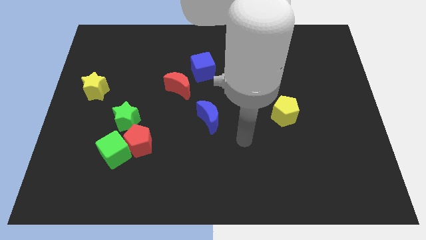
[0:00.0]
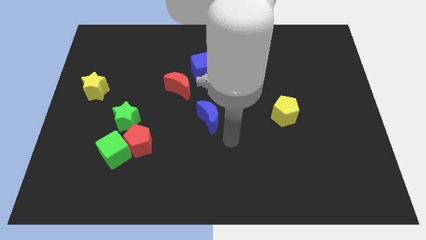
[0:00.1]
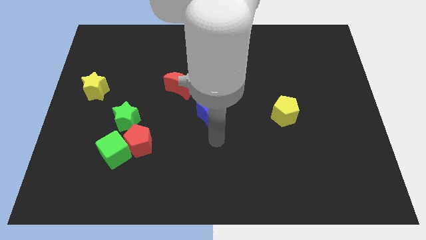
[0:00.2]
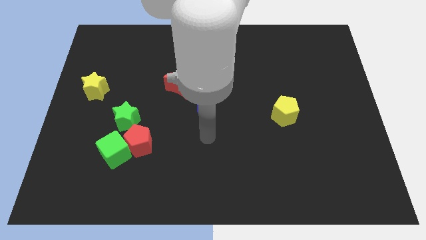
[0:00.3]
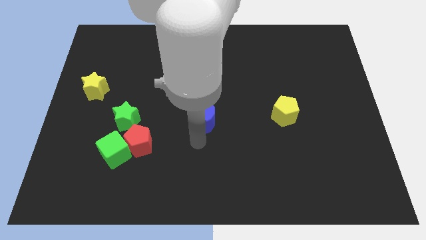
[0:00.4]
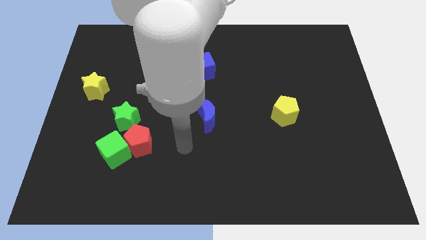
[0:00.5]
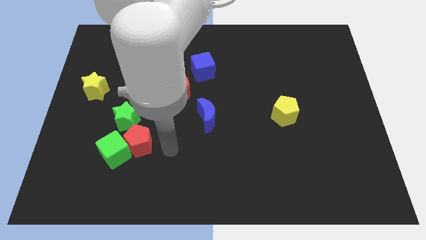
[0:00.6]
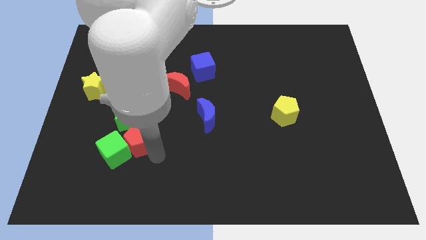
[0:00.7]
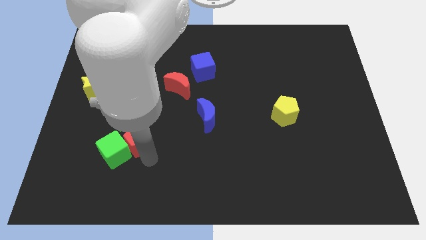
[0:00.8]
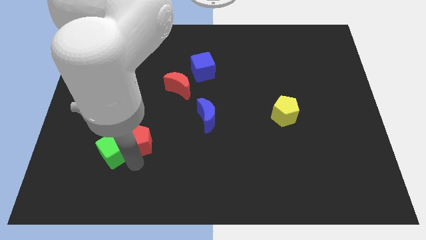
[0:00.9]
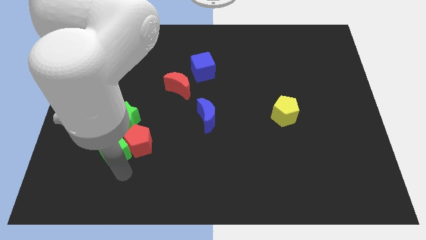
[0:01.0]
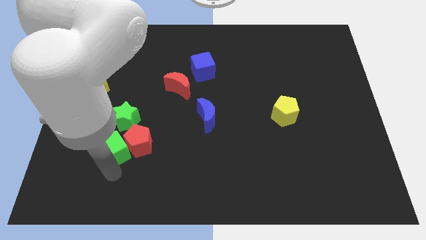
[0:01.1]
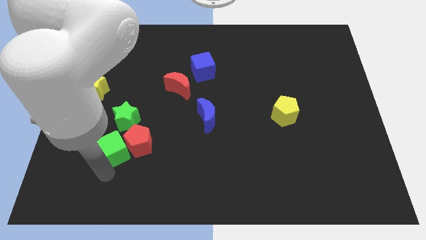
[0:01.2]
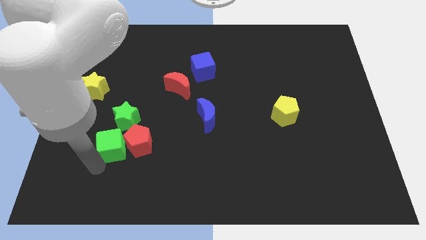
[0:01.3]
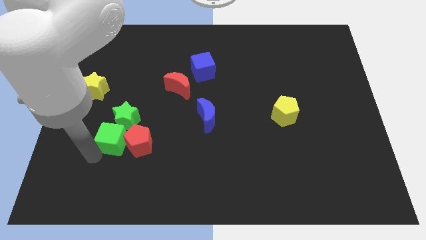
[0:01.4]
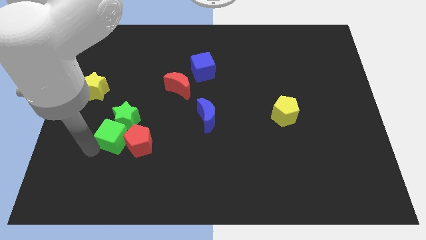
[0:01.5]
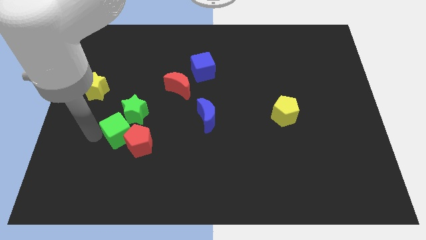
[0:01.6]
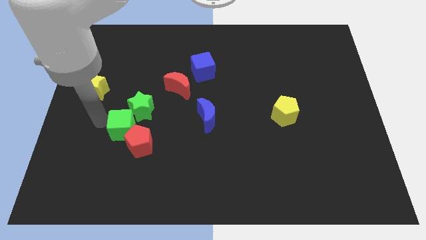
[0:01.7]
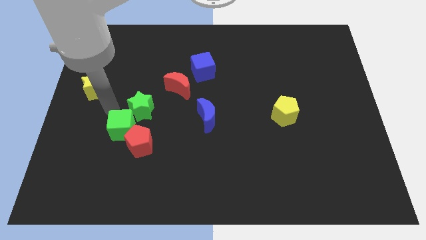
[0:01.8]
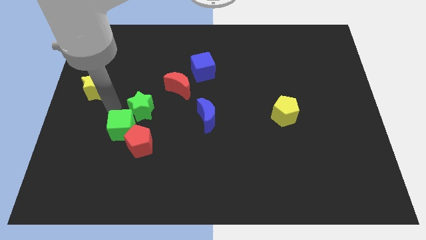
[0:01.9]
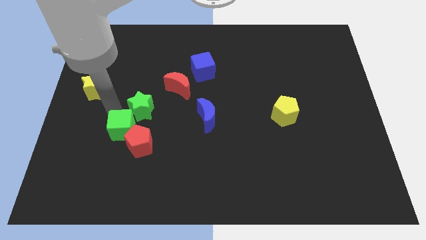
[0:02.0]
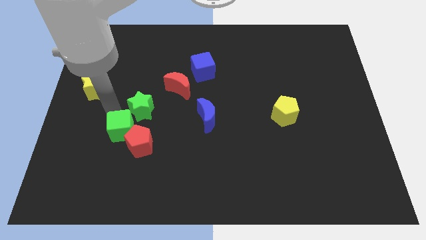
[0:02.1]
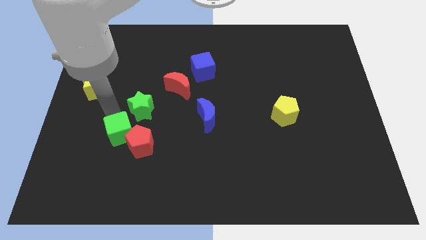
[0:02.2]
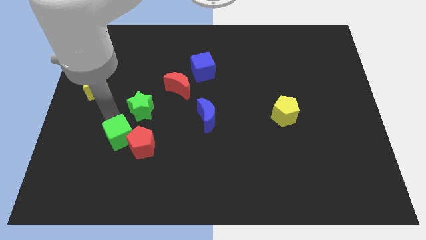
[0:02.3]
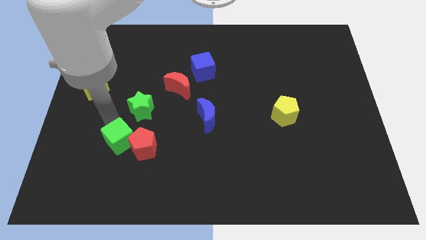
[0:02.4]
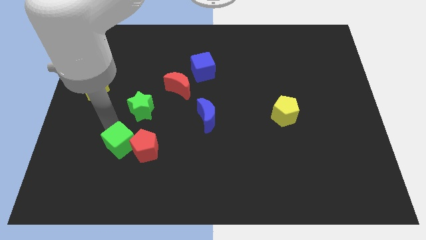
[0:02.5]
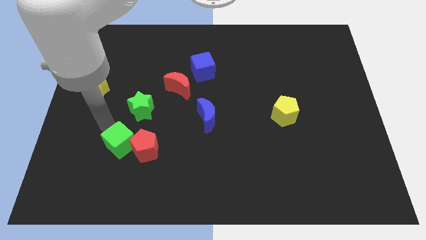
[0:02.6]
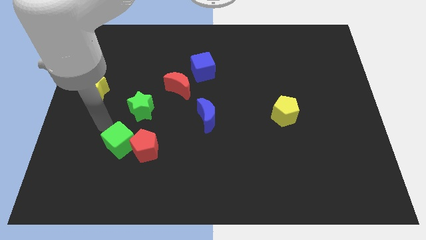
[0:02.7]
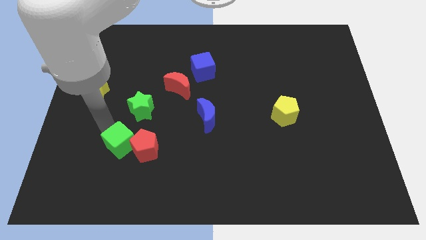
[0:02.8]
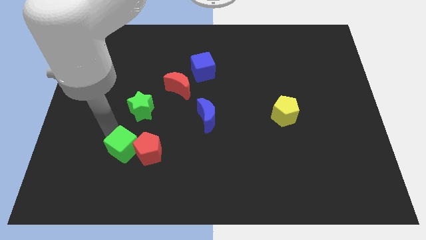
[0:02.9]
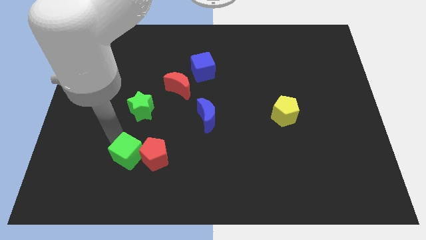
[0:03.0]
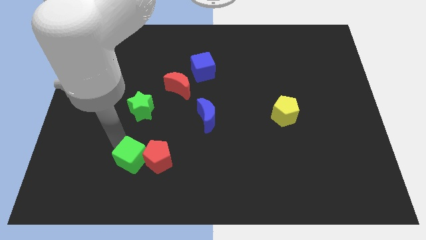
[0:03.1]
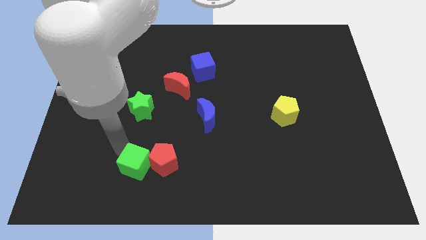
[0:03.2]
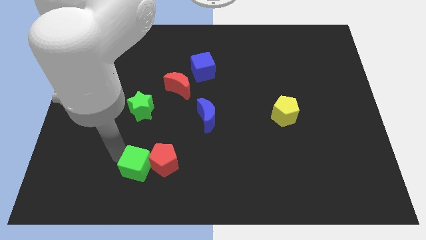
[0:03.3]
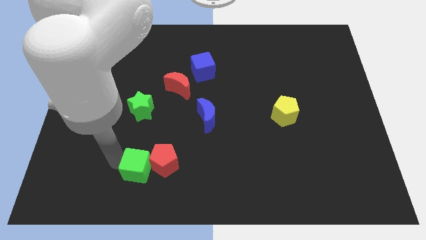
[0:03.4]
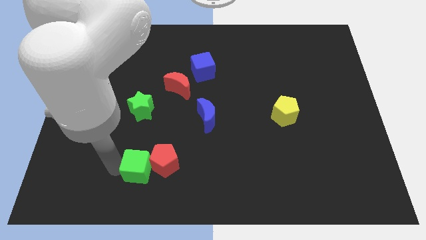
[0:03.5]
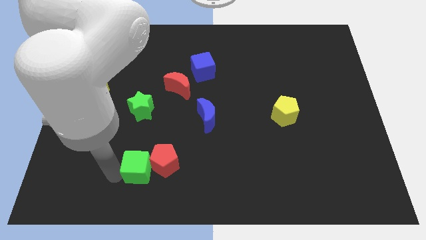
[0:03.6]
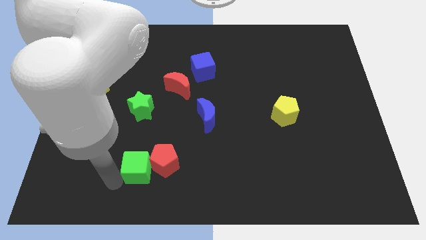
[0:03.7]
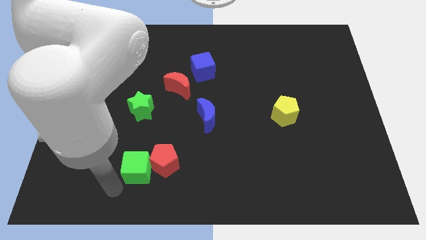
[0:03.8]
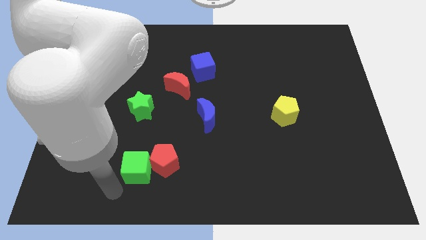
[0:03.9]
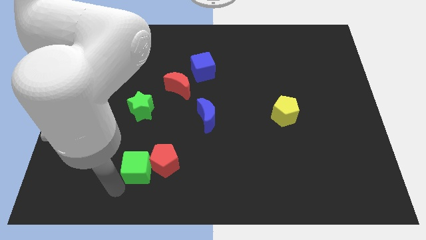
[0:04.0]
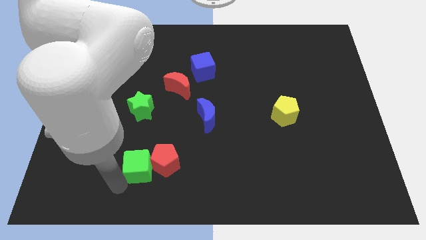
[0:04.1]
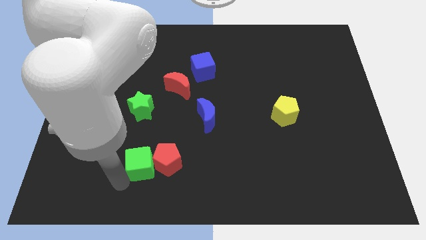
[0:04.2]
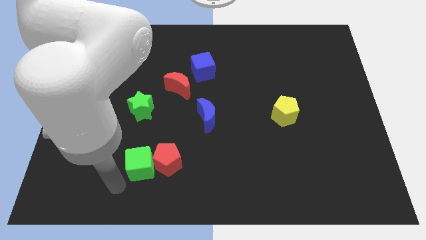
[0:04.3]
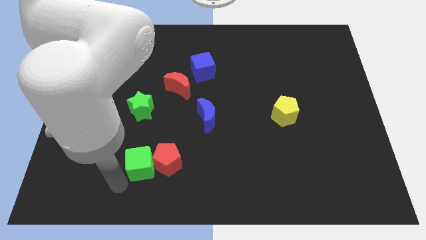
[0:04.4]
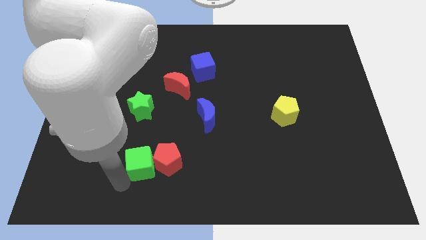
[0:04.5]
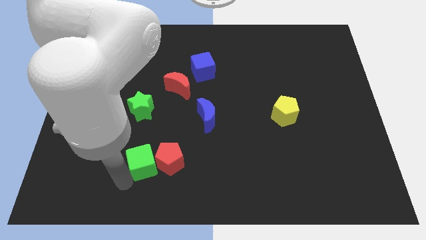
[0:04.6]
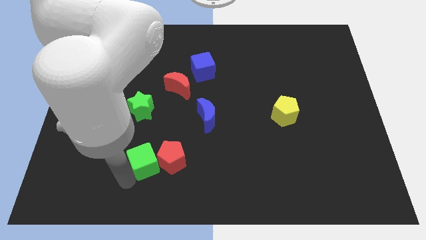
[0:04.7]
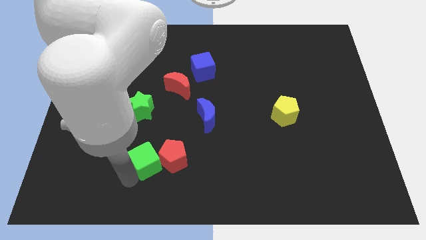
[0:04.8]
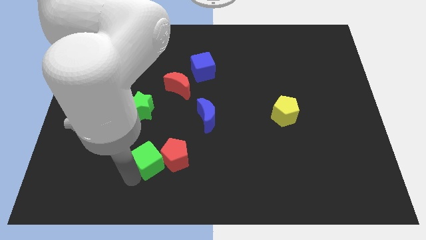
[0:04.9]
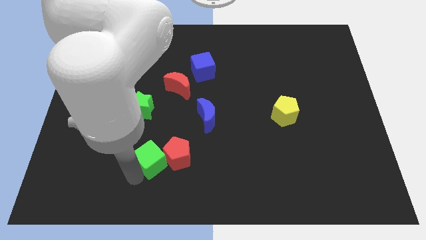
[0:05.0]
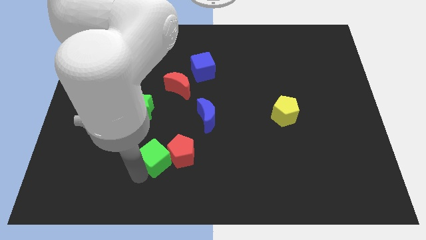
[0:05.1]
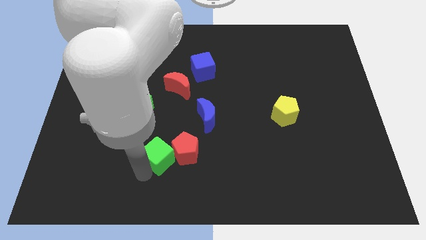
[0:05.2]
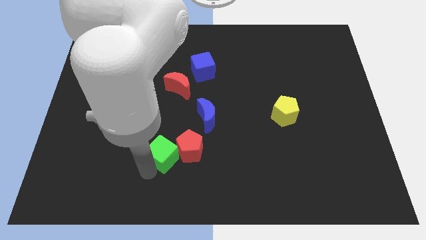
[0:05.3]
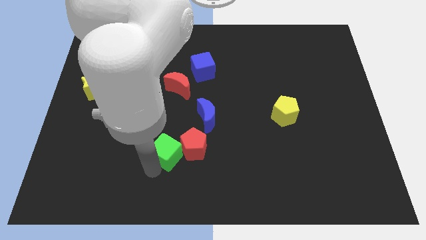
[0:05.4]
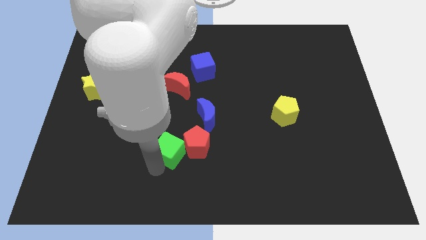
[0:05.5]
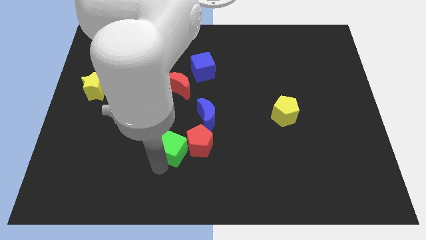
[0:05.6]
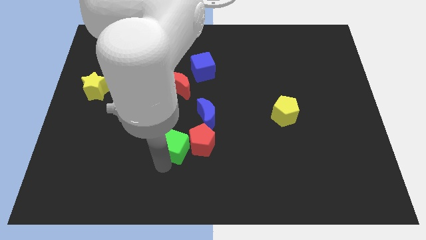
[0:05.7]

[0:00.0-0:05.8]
slide the green cube somewhat up and to the right

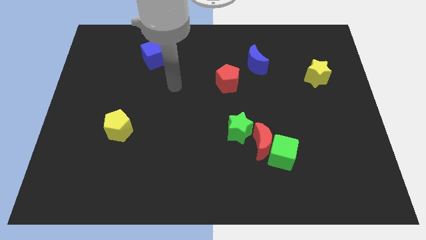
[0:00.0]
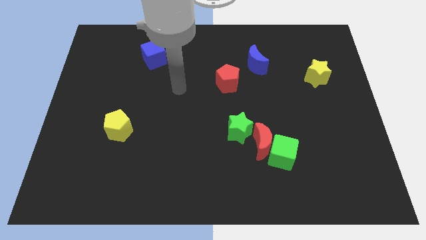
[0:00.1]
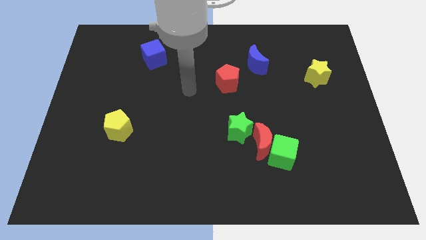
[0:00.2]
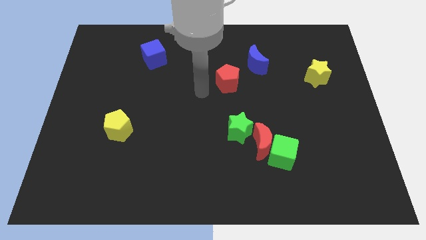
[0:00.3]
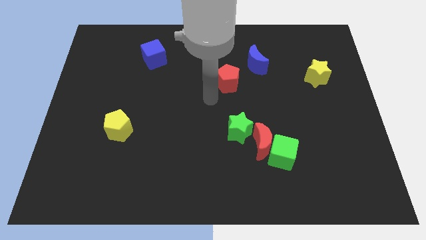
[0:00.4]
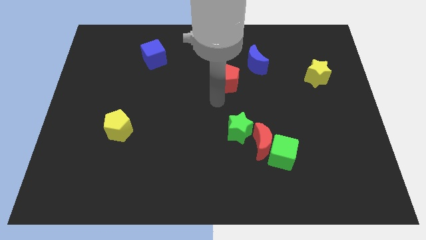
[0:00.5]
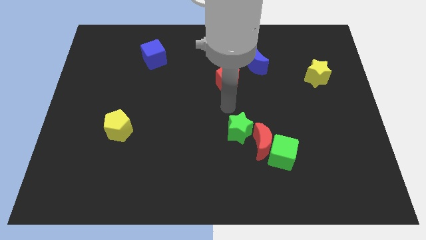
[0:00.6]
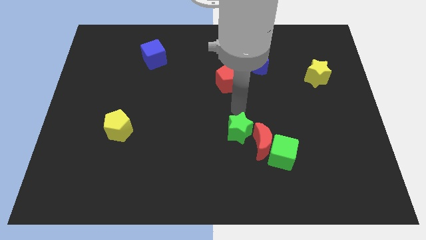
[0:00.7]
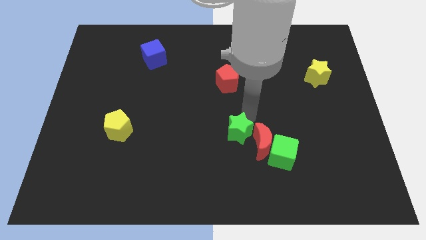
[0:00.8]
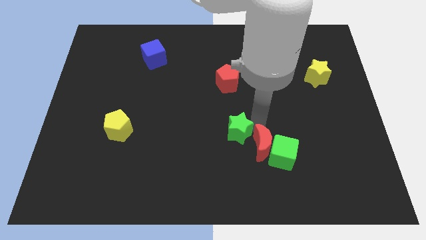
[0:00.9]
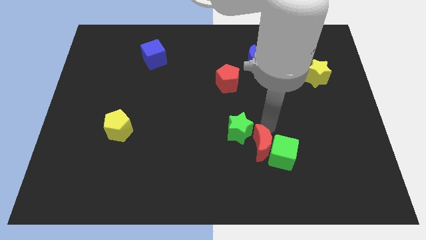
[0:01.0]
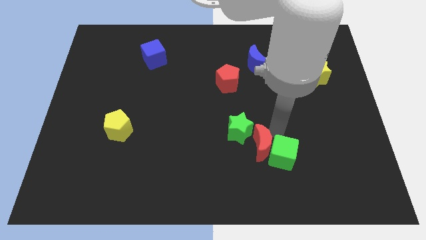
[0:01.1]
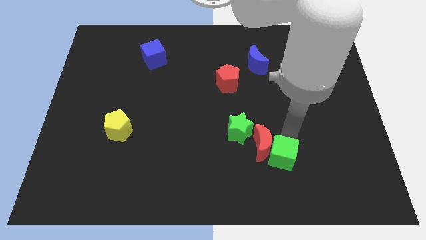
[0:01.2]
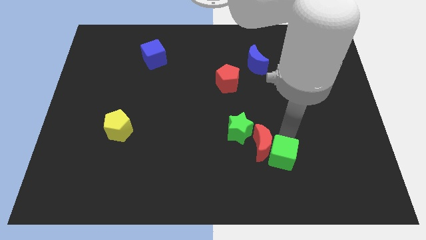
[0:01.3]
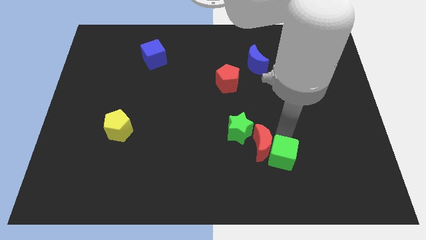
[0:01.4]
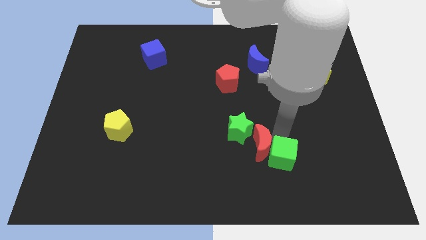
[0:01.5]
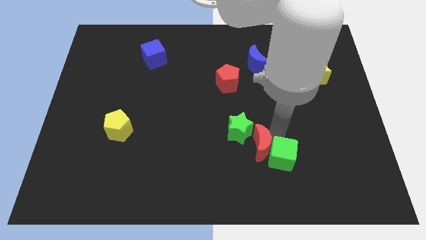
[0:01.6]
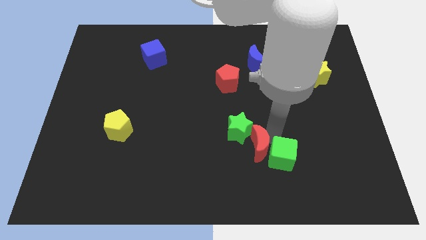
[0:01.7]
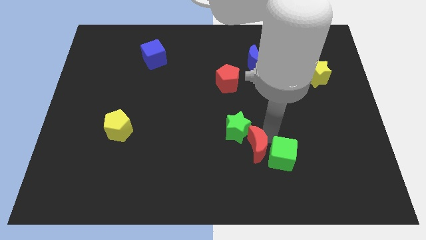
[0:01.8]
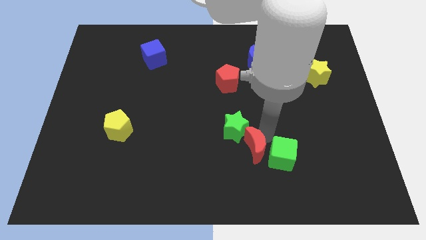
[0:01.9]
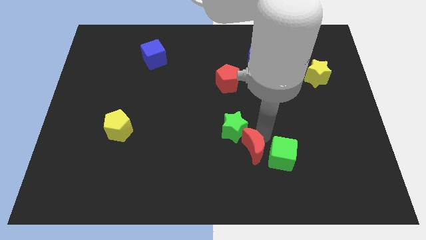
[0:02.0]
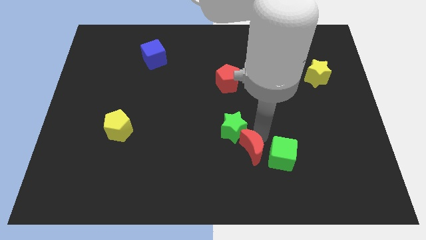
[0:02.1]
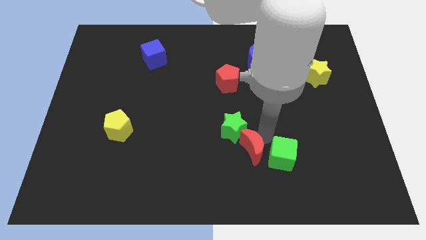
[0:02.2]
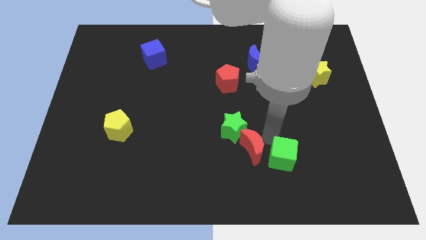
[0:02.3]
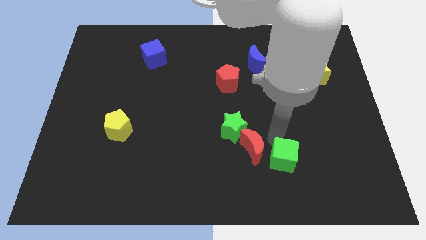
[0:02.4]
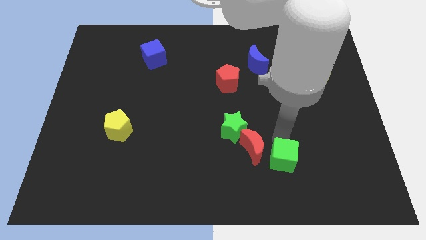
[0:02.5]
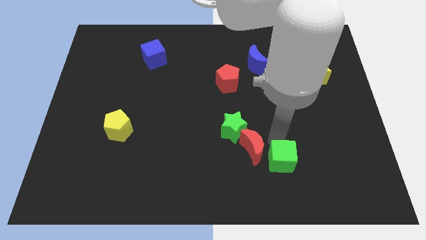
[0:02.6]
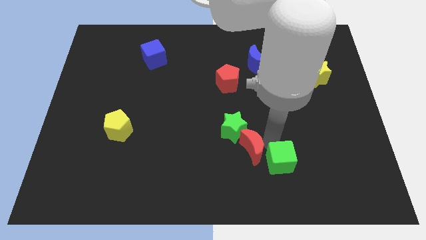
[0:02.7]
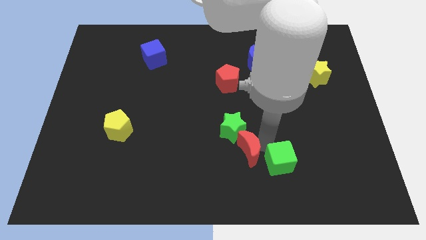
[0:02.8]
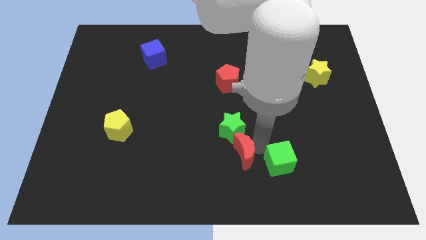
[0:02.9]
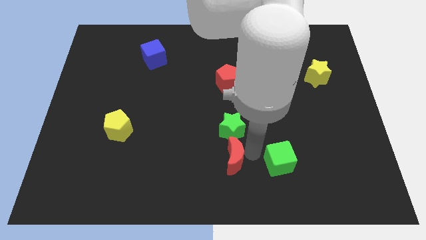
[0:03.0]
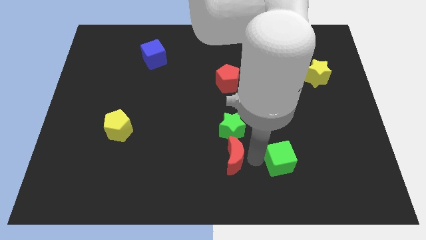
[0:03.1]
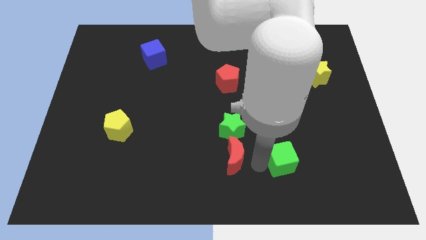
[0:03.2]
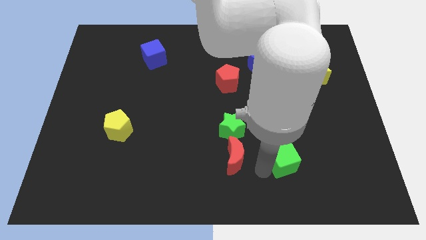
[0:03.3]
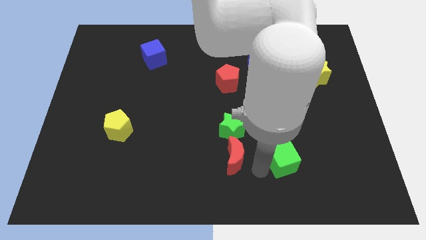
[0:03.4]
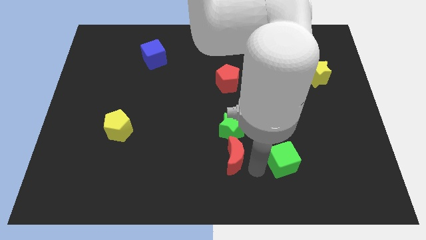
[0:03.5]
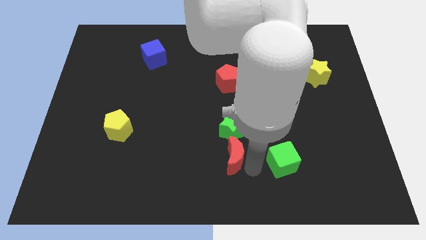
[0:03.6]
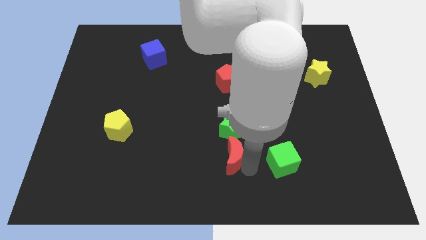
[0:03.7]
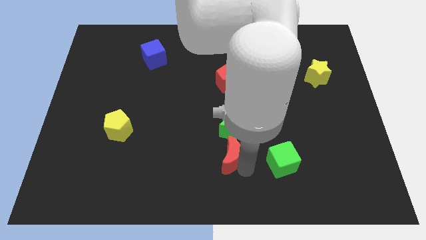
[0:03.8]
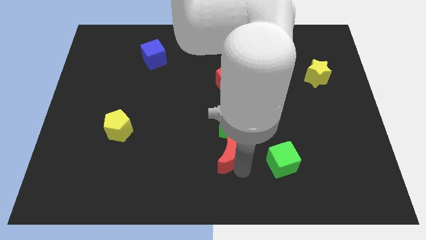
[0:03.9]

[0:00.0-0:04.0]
push the red moon a bit left
